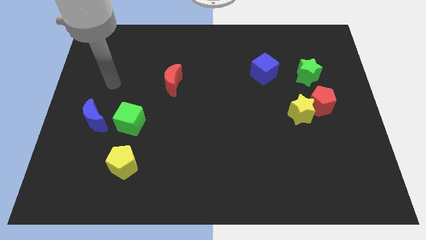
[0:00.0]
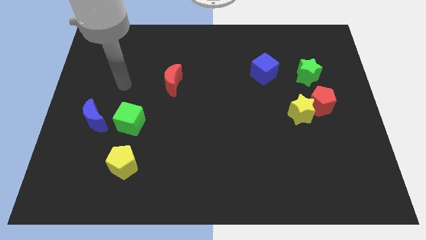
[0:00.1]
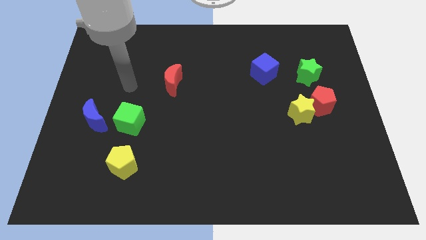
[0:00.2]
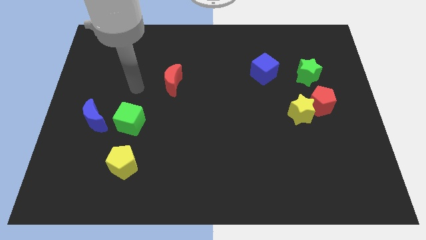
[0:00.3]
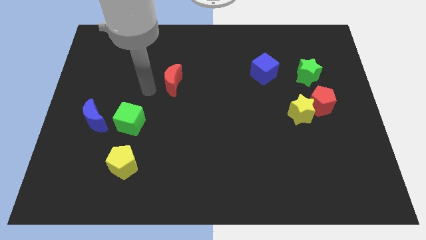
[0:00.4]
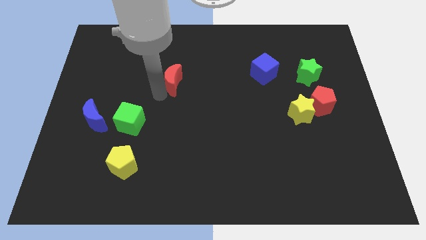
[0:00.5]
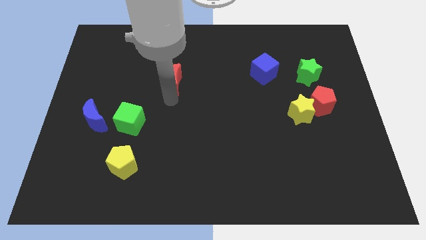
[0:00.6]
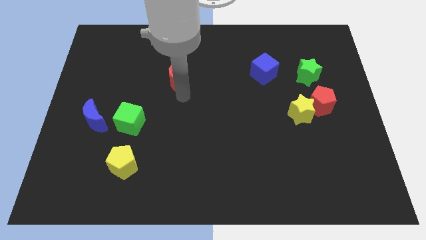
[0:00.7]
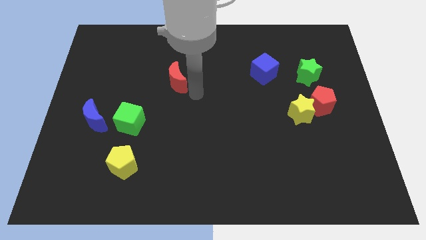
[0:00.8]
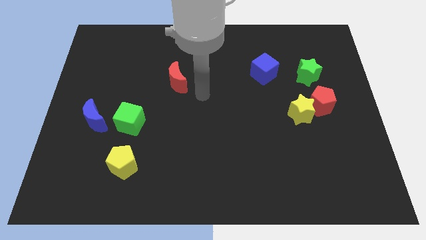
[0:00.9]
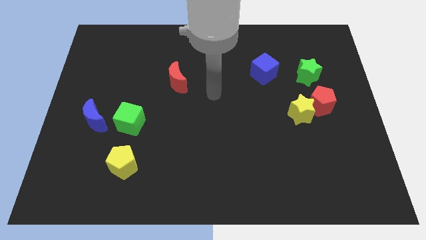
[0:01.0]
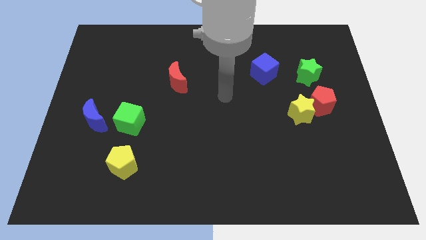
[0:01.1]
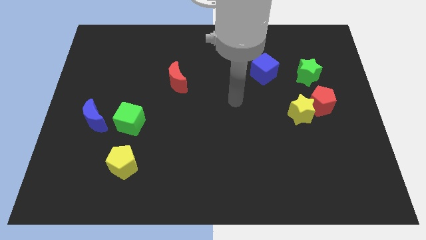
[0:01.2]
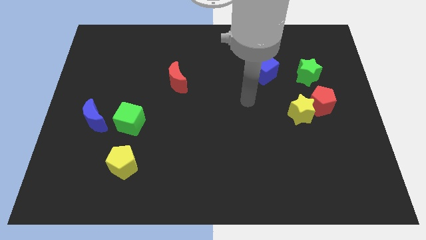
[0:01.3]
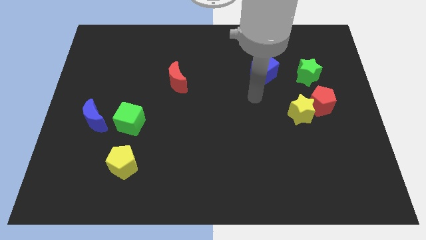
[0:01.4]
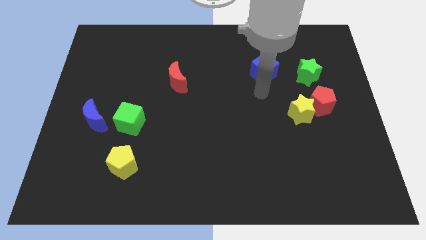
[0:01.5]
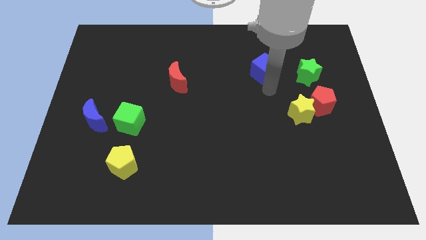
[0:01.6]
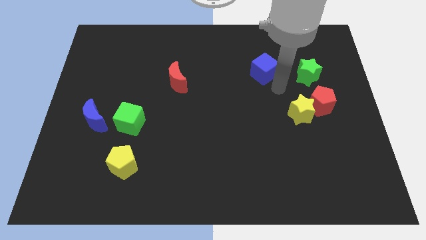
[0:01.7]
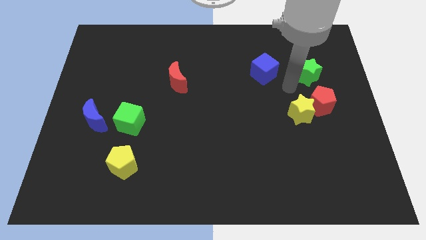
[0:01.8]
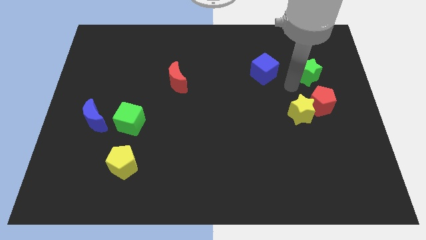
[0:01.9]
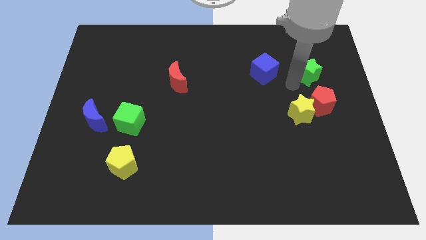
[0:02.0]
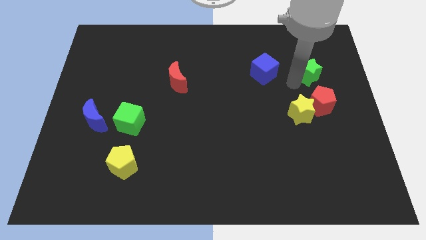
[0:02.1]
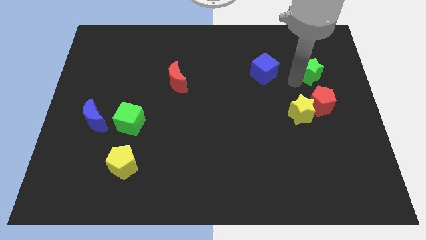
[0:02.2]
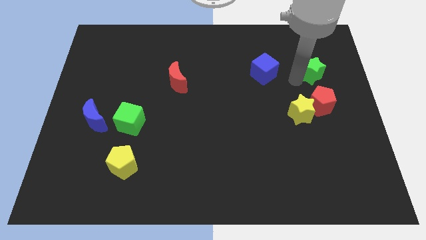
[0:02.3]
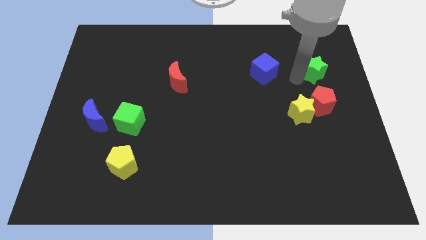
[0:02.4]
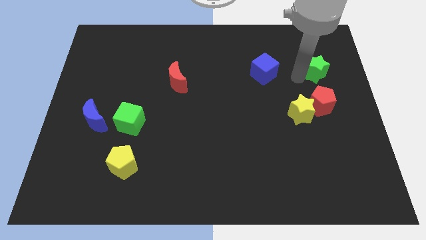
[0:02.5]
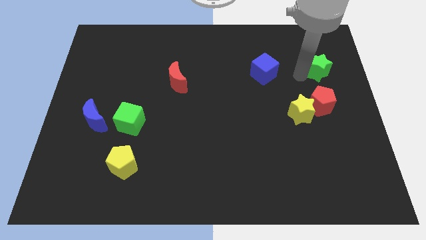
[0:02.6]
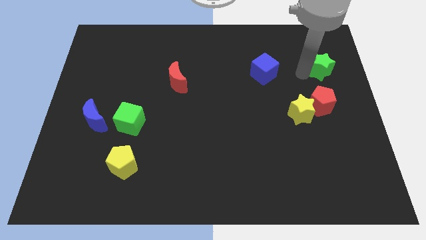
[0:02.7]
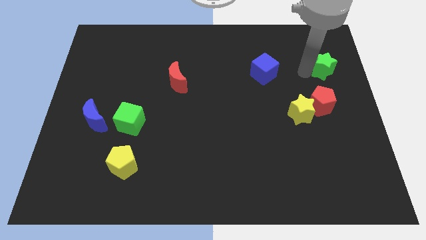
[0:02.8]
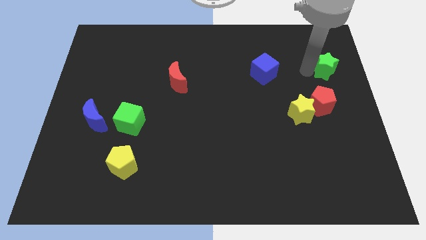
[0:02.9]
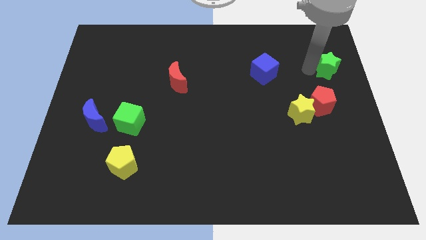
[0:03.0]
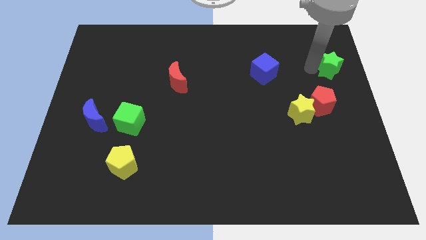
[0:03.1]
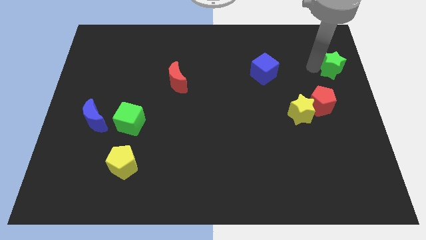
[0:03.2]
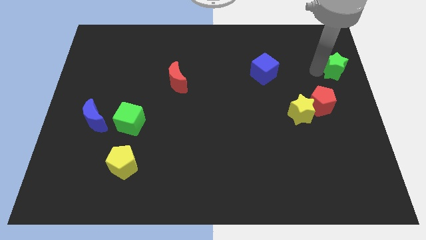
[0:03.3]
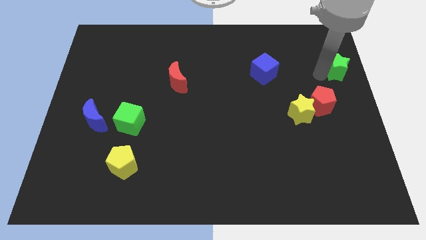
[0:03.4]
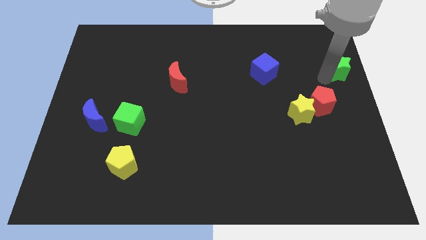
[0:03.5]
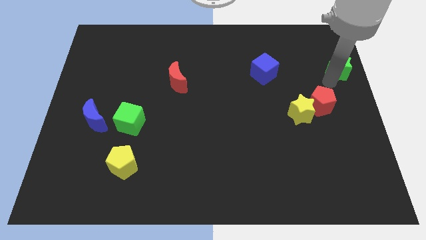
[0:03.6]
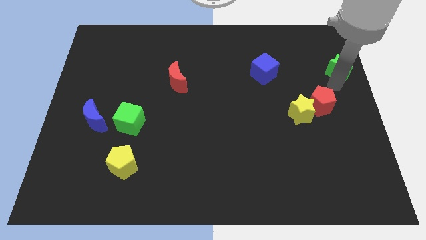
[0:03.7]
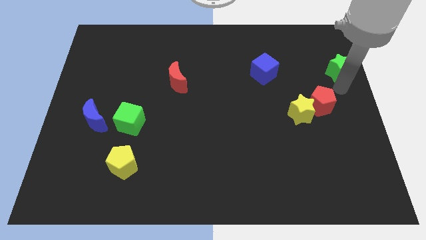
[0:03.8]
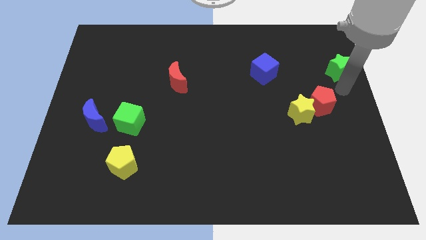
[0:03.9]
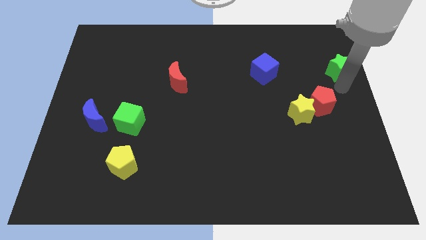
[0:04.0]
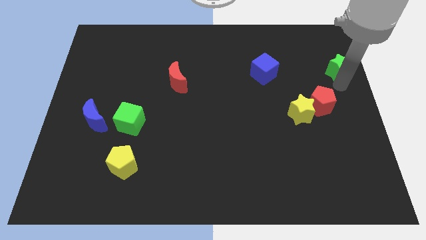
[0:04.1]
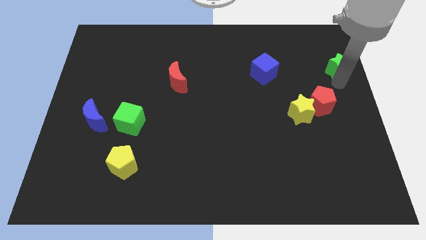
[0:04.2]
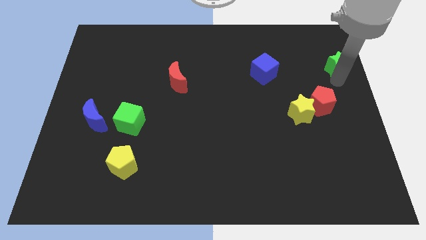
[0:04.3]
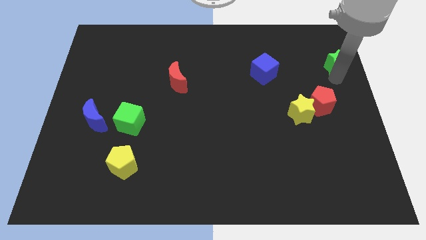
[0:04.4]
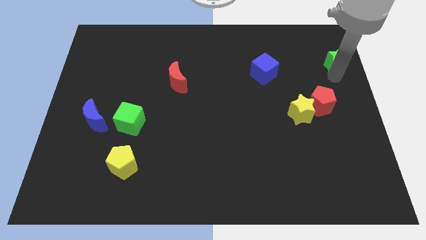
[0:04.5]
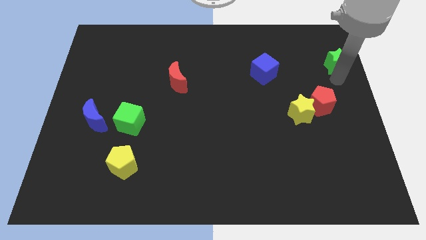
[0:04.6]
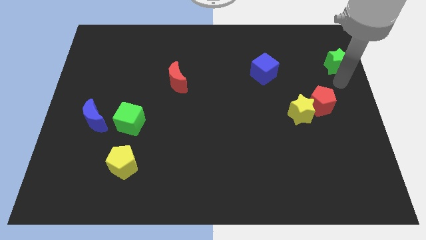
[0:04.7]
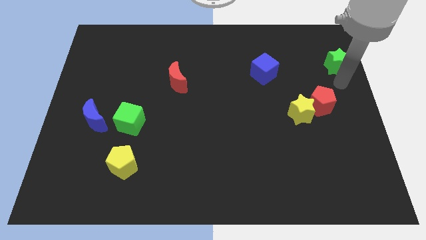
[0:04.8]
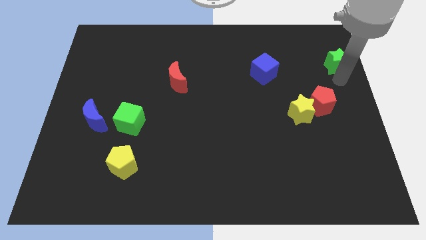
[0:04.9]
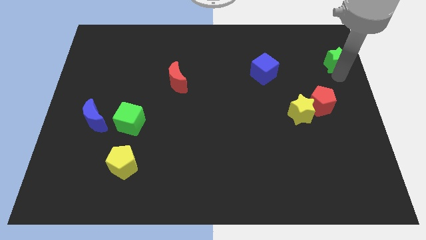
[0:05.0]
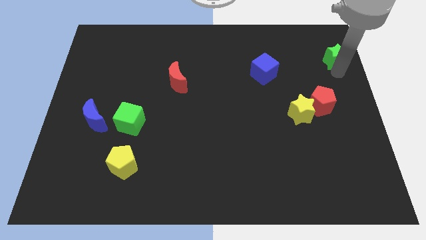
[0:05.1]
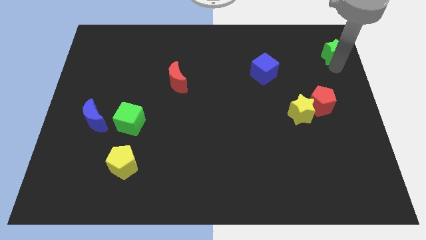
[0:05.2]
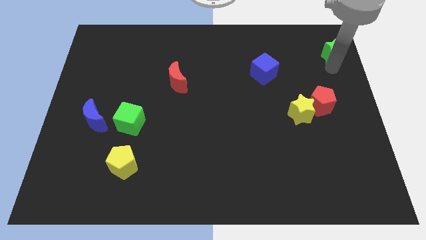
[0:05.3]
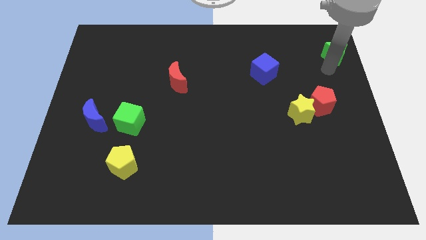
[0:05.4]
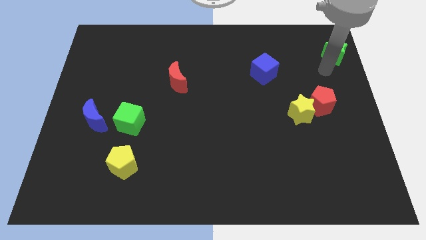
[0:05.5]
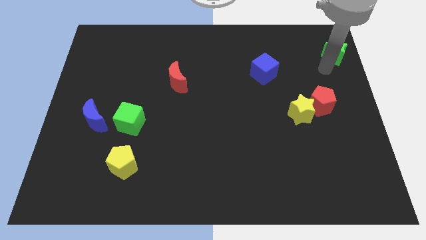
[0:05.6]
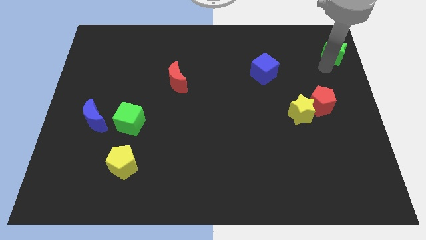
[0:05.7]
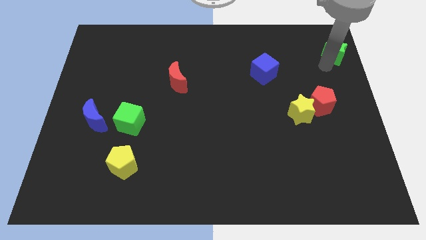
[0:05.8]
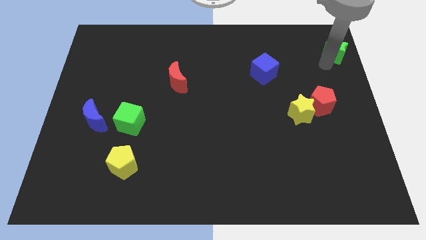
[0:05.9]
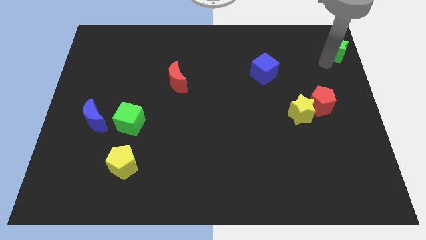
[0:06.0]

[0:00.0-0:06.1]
put the green star to the top right corner

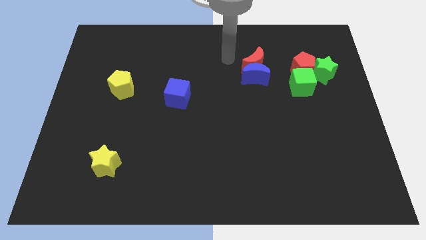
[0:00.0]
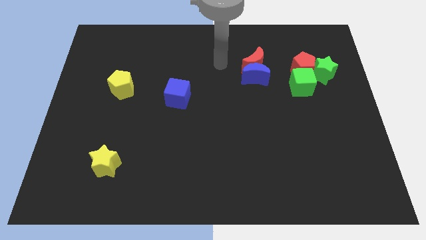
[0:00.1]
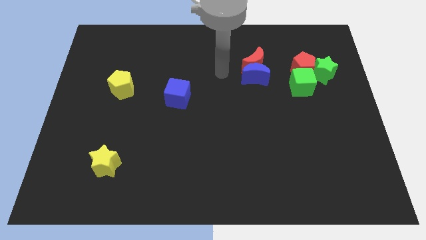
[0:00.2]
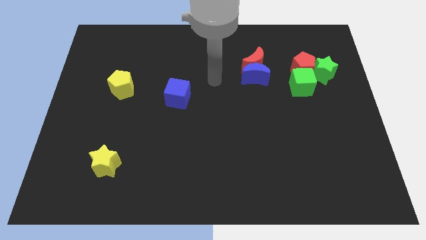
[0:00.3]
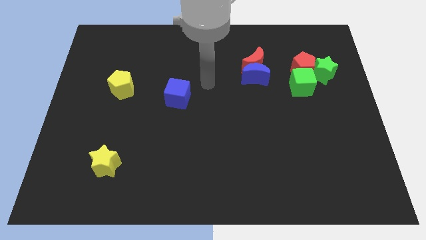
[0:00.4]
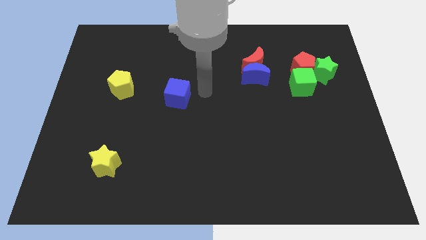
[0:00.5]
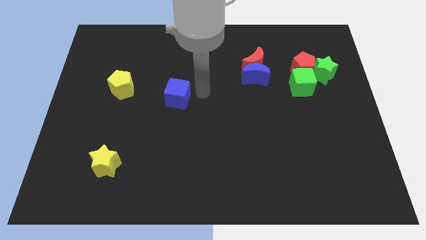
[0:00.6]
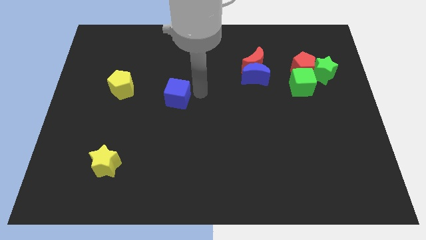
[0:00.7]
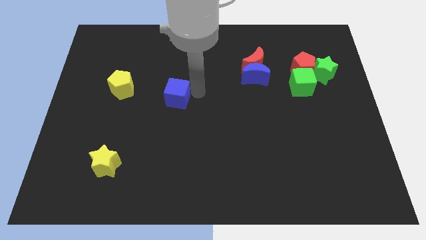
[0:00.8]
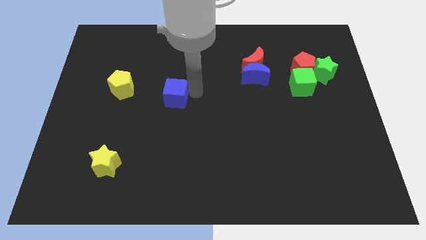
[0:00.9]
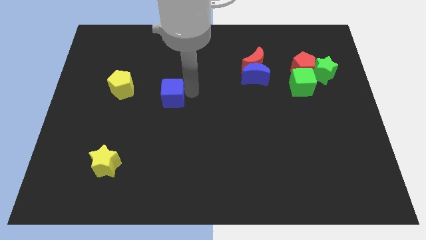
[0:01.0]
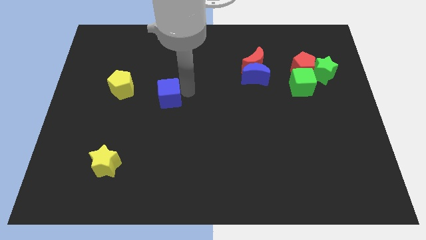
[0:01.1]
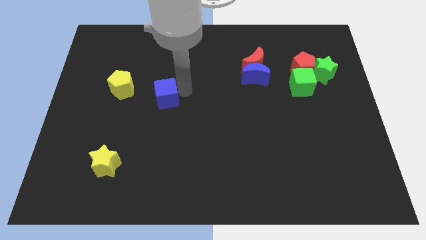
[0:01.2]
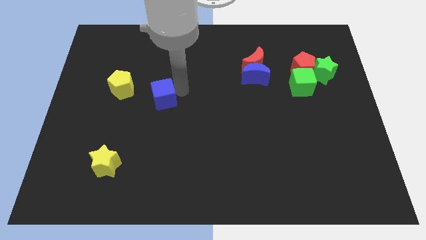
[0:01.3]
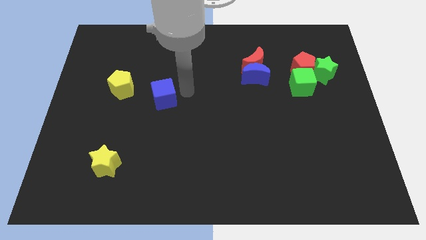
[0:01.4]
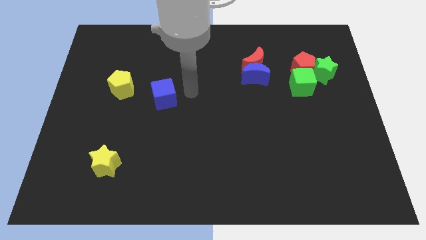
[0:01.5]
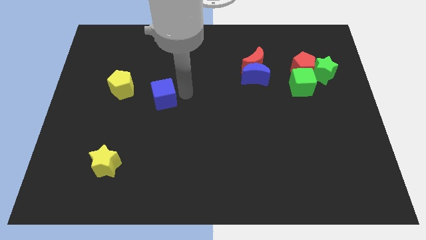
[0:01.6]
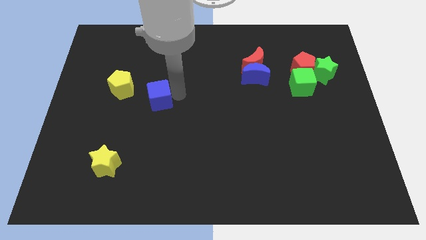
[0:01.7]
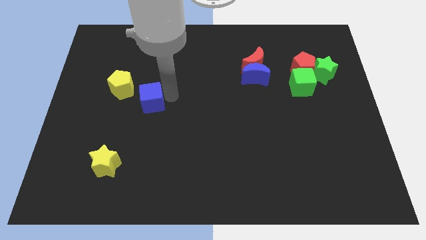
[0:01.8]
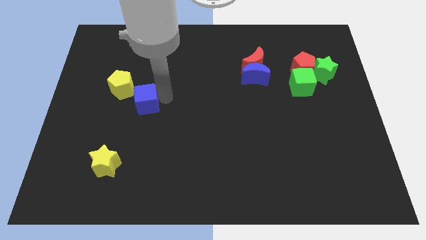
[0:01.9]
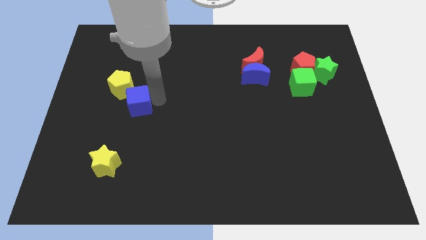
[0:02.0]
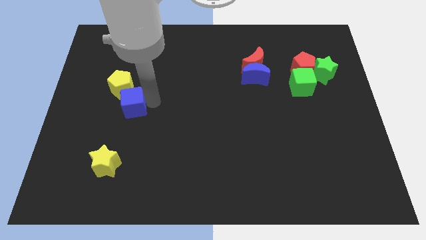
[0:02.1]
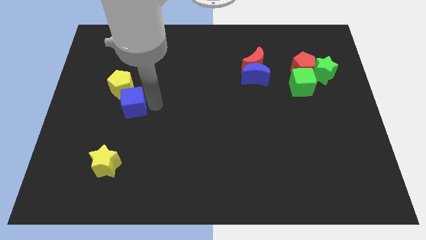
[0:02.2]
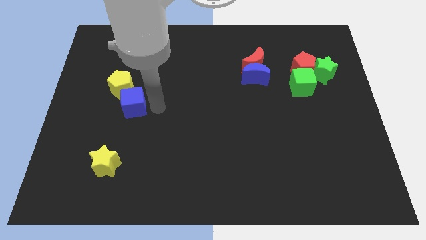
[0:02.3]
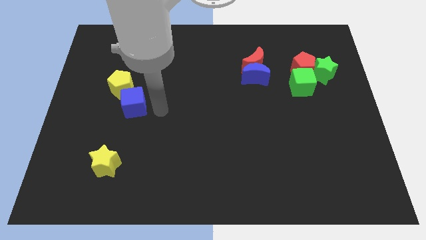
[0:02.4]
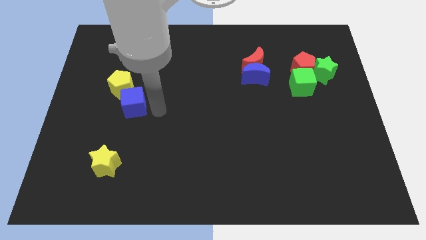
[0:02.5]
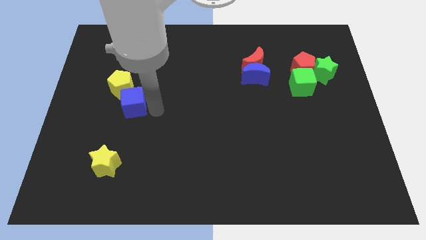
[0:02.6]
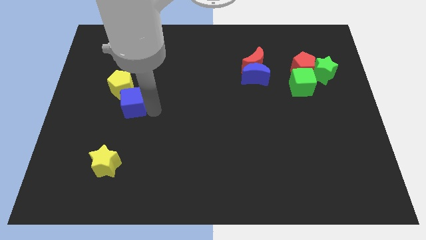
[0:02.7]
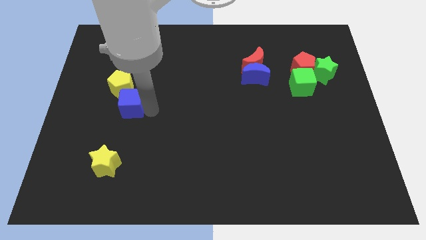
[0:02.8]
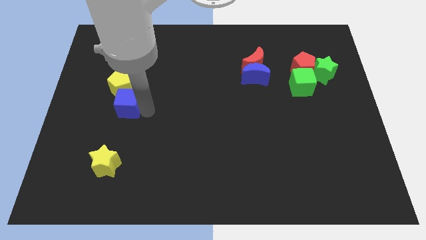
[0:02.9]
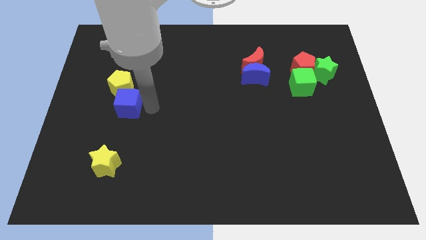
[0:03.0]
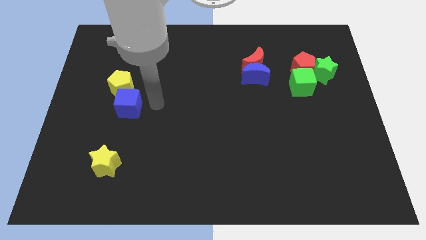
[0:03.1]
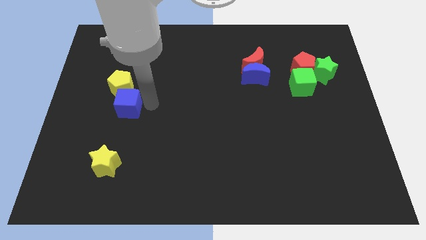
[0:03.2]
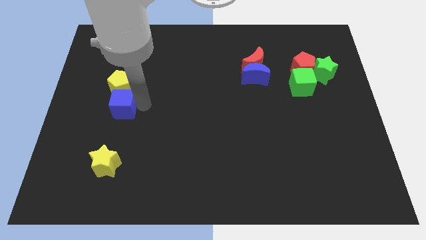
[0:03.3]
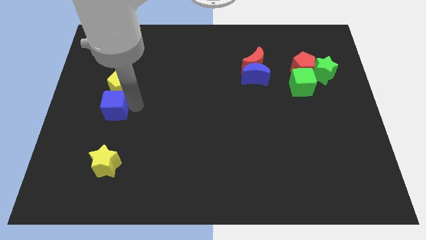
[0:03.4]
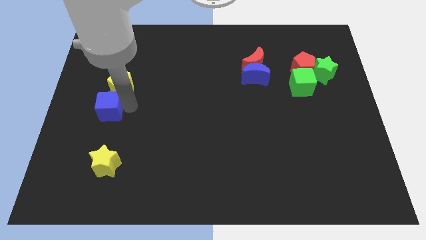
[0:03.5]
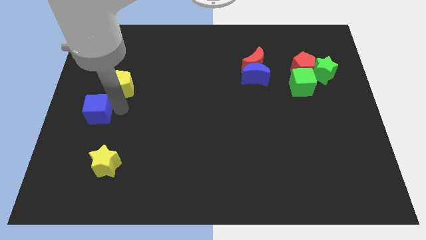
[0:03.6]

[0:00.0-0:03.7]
push the blue cube to the center left
